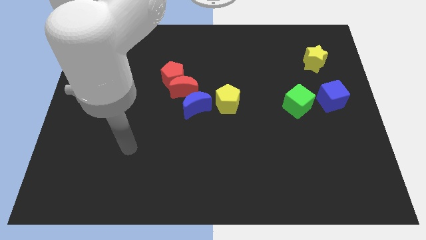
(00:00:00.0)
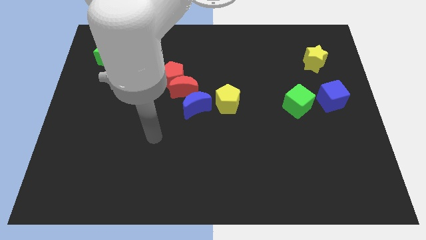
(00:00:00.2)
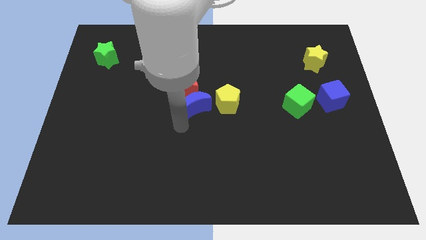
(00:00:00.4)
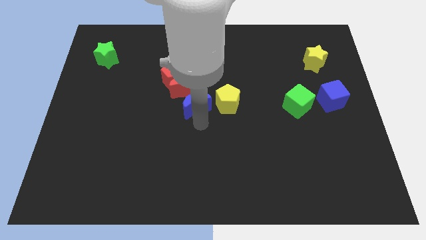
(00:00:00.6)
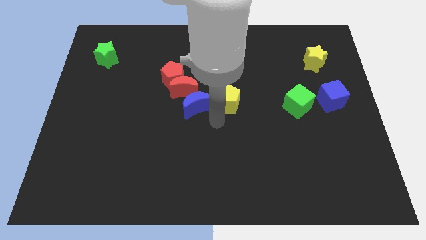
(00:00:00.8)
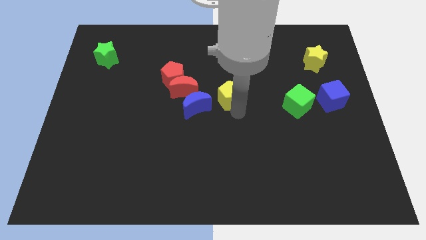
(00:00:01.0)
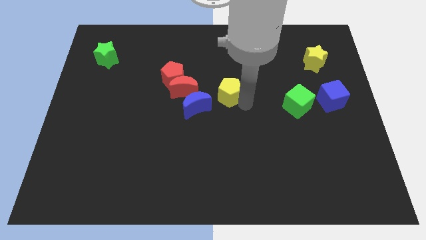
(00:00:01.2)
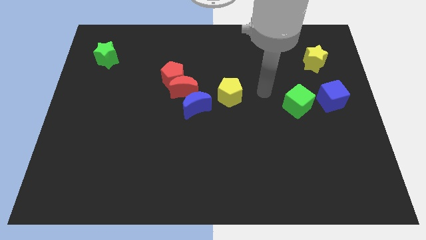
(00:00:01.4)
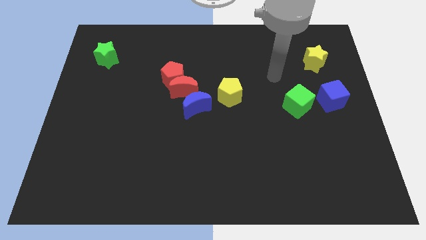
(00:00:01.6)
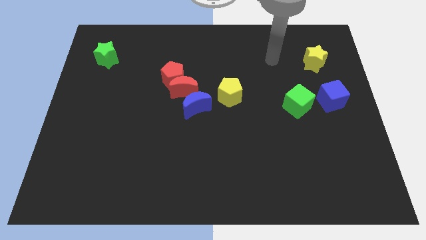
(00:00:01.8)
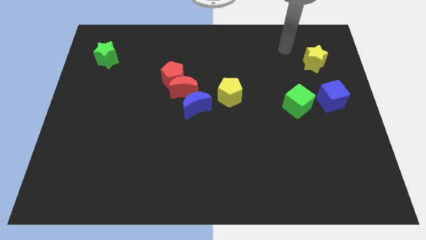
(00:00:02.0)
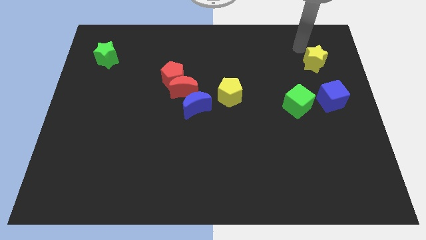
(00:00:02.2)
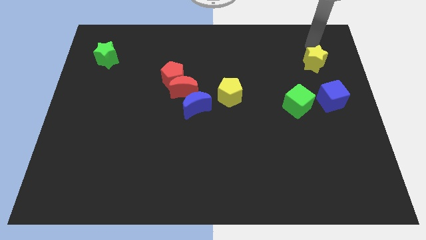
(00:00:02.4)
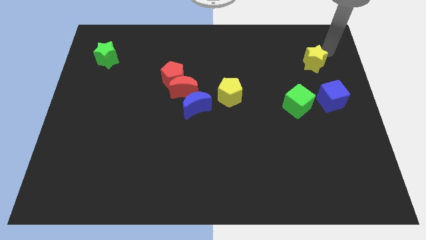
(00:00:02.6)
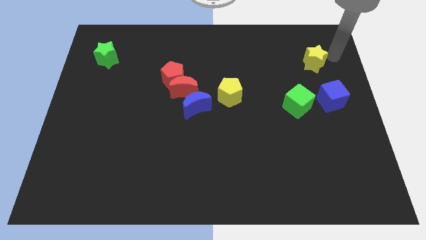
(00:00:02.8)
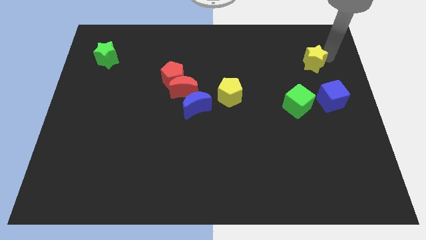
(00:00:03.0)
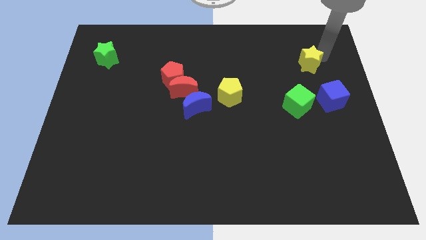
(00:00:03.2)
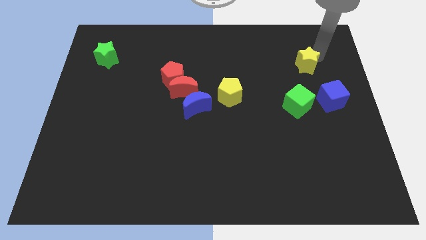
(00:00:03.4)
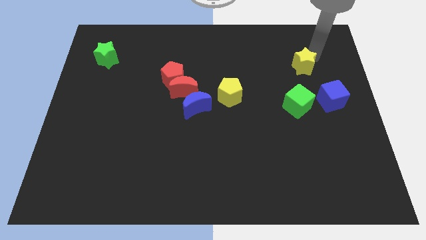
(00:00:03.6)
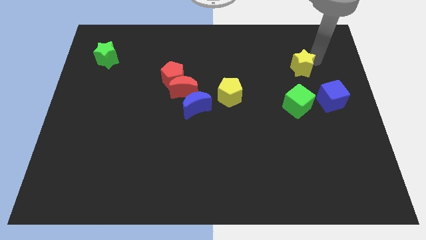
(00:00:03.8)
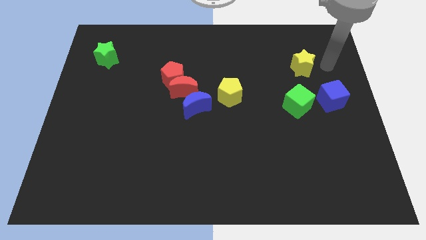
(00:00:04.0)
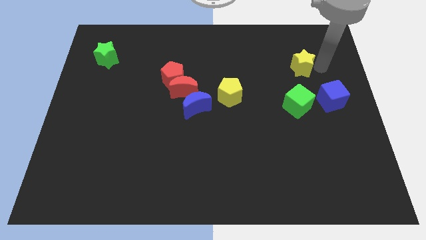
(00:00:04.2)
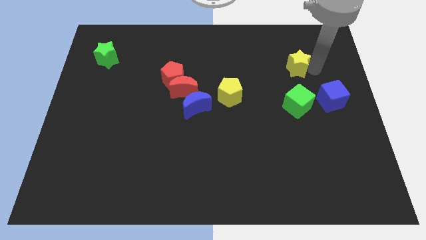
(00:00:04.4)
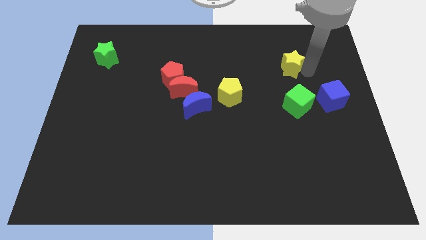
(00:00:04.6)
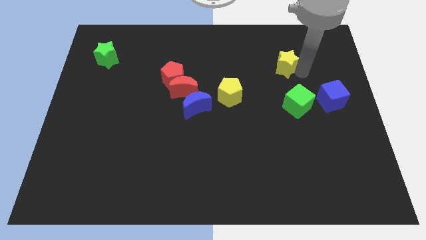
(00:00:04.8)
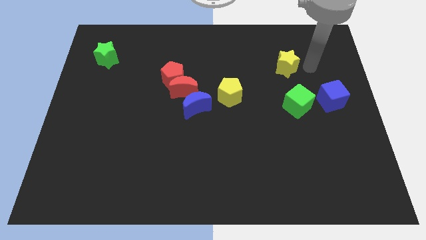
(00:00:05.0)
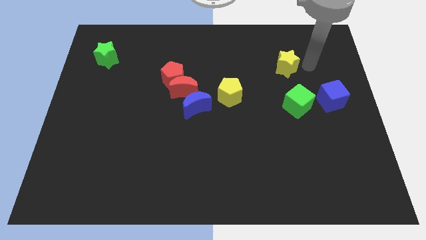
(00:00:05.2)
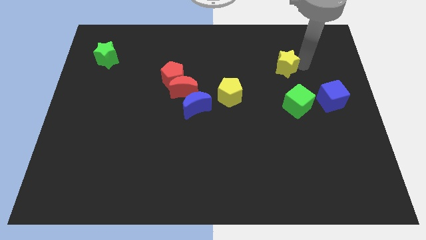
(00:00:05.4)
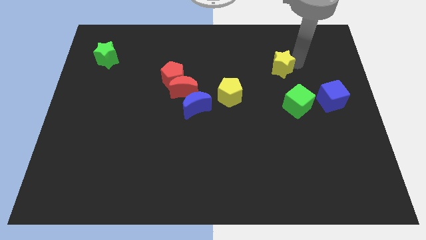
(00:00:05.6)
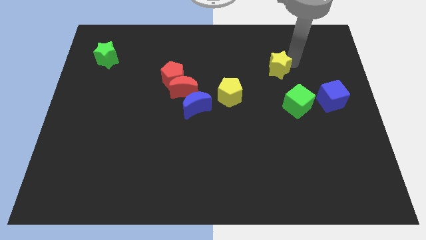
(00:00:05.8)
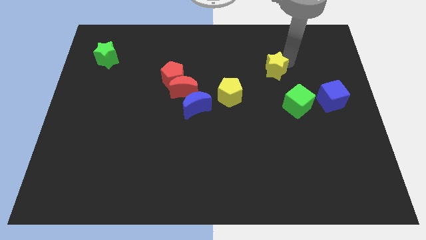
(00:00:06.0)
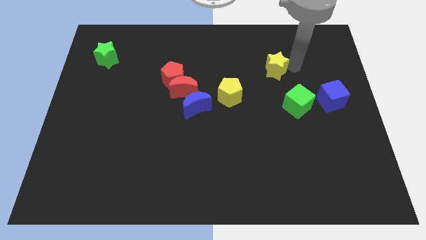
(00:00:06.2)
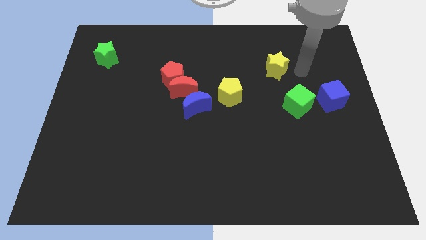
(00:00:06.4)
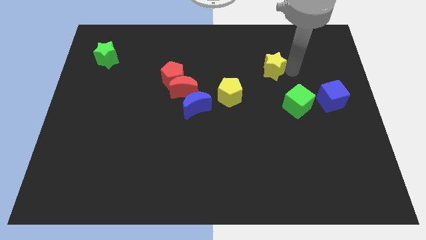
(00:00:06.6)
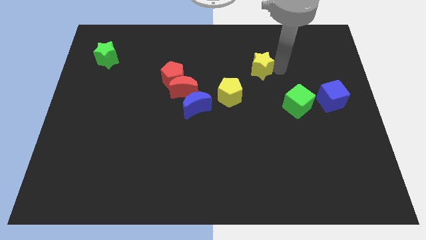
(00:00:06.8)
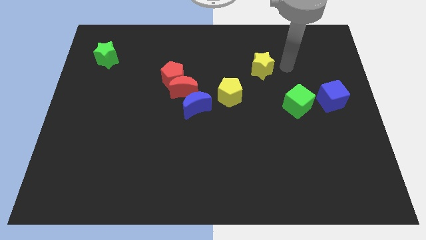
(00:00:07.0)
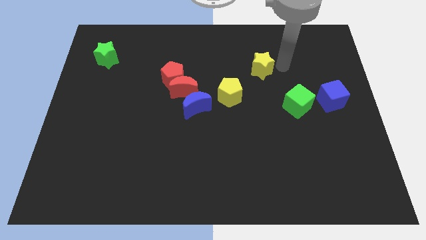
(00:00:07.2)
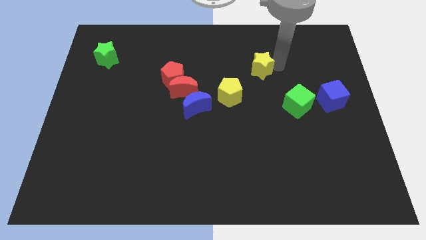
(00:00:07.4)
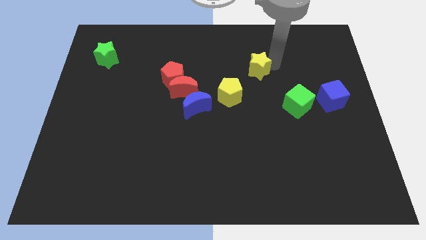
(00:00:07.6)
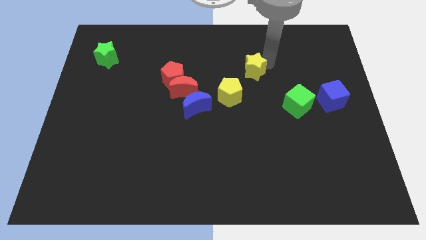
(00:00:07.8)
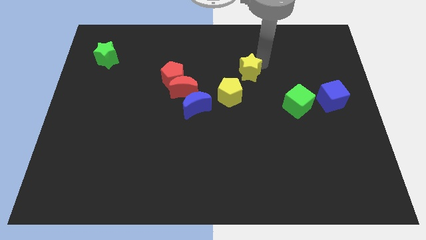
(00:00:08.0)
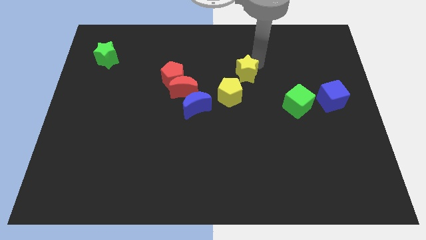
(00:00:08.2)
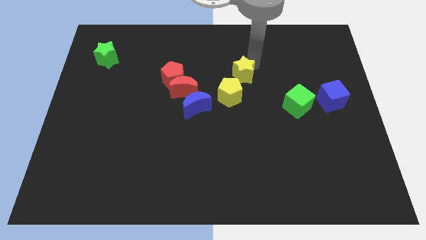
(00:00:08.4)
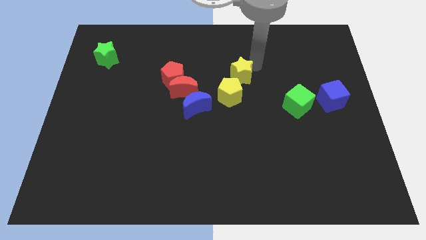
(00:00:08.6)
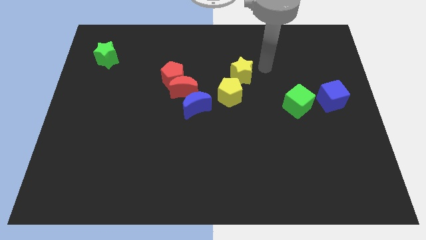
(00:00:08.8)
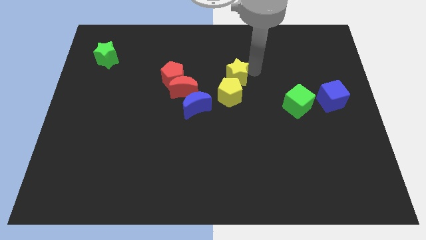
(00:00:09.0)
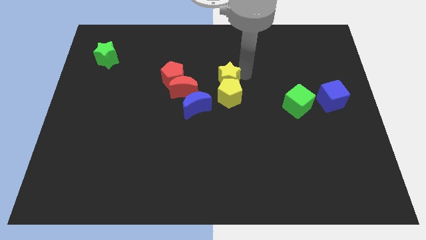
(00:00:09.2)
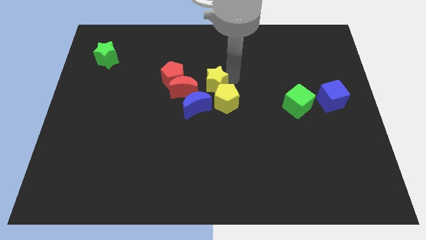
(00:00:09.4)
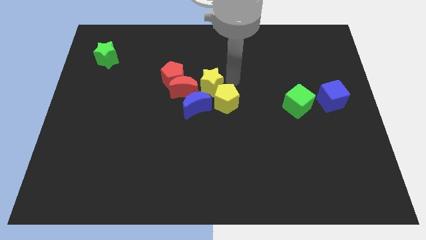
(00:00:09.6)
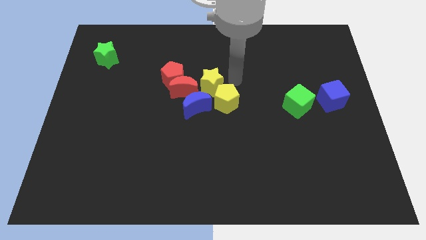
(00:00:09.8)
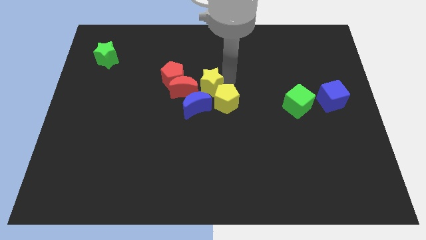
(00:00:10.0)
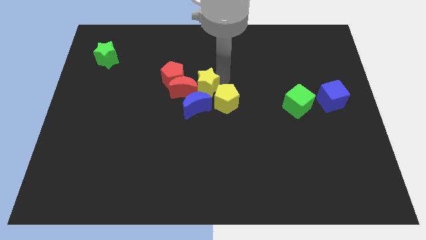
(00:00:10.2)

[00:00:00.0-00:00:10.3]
put the yellow star towards the red moon

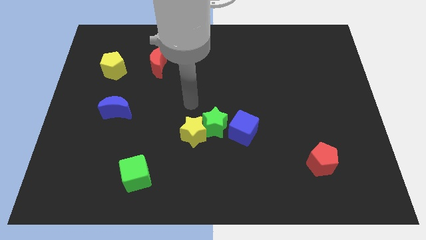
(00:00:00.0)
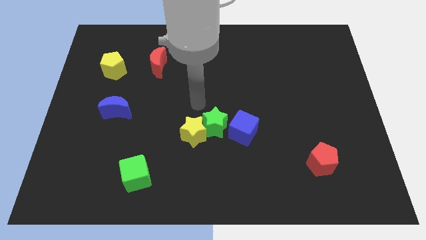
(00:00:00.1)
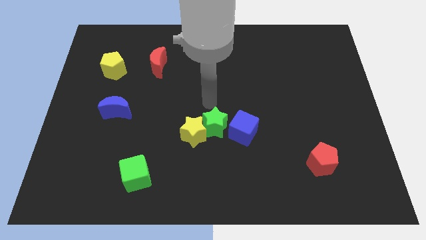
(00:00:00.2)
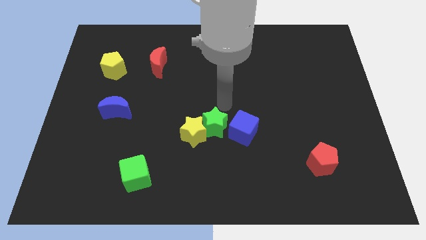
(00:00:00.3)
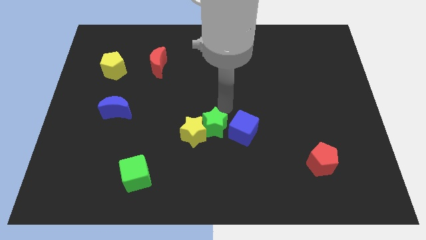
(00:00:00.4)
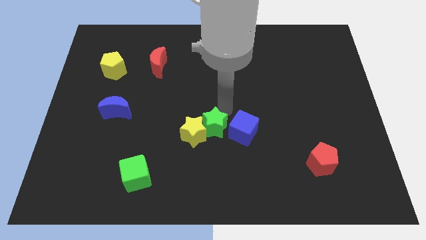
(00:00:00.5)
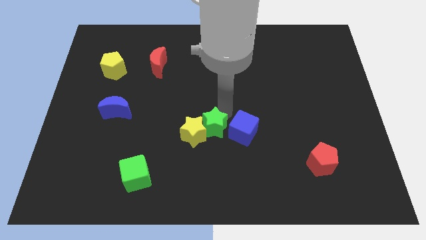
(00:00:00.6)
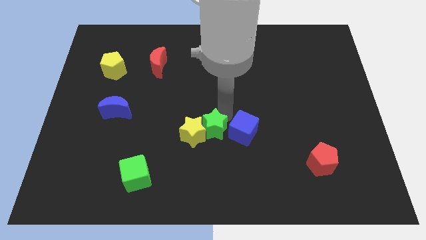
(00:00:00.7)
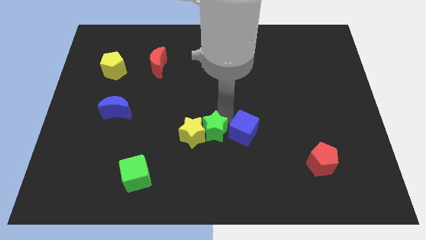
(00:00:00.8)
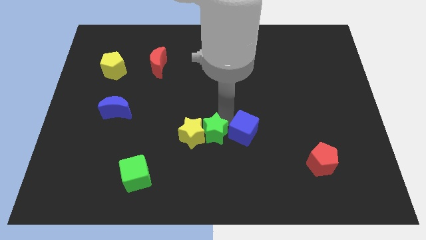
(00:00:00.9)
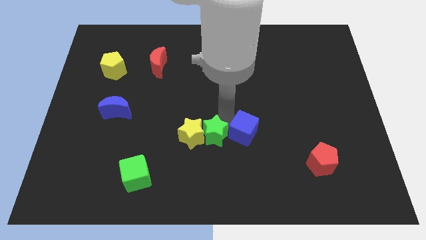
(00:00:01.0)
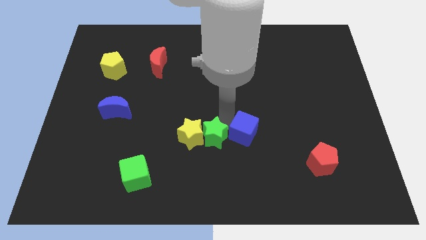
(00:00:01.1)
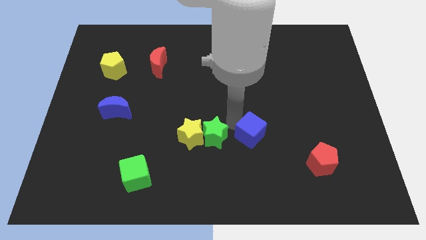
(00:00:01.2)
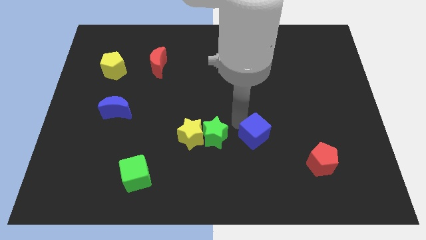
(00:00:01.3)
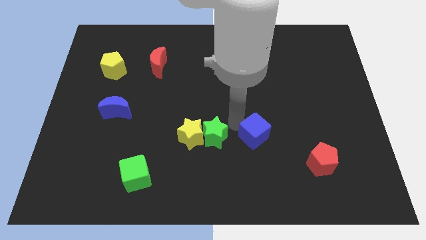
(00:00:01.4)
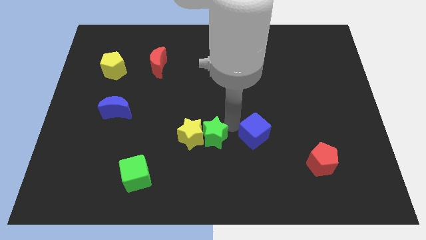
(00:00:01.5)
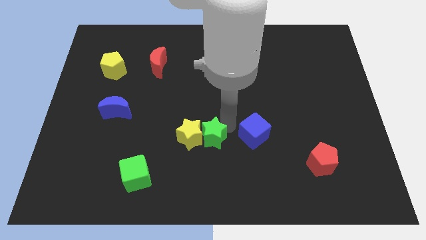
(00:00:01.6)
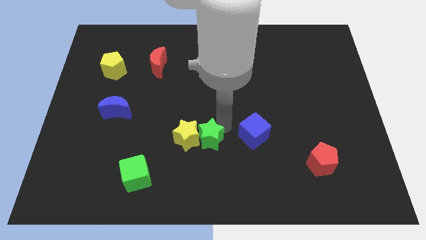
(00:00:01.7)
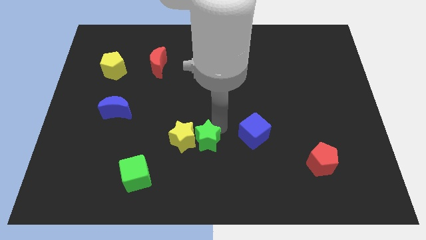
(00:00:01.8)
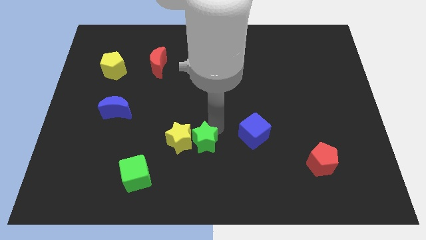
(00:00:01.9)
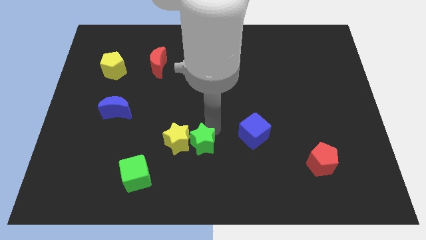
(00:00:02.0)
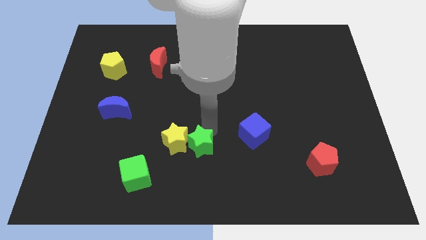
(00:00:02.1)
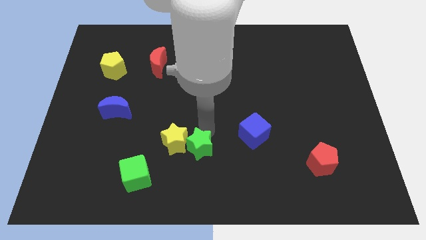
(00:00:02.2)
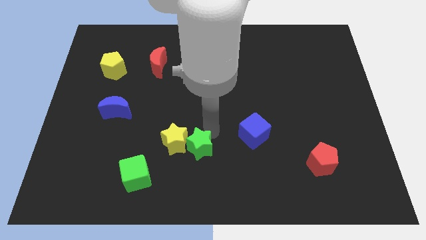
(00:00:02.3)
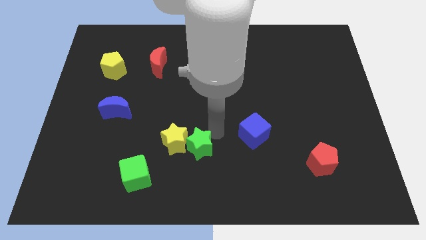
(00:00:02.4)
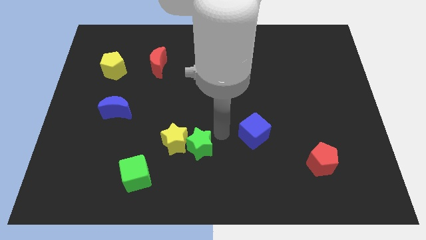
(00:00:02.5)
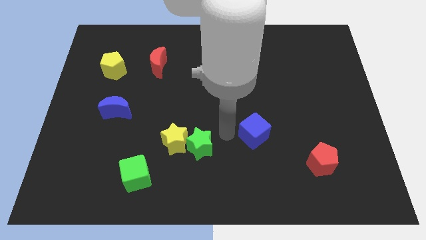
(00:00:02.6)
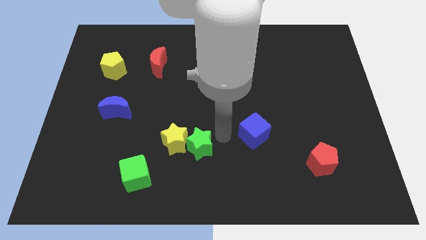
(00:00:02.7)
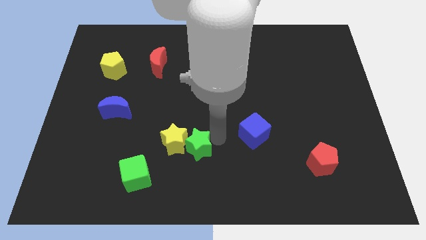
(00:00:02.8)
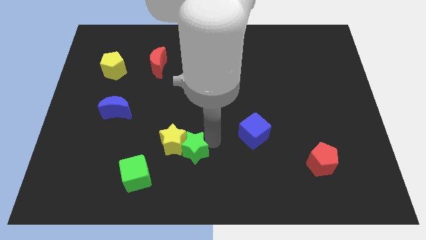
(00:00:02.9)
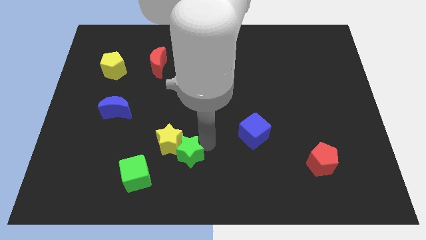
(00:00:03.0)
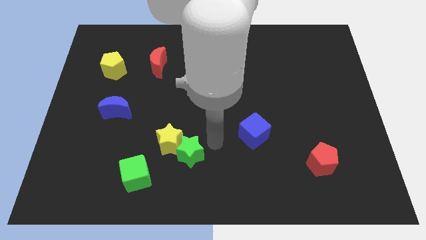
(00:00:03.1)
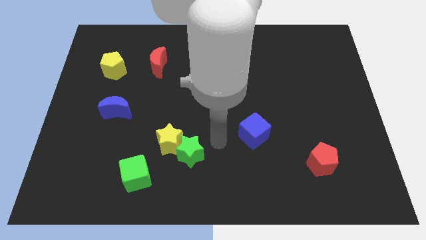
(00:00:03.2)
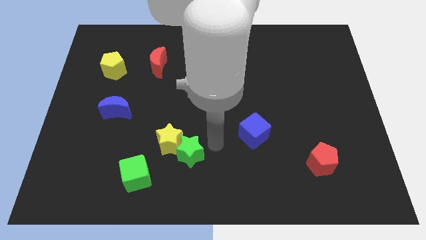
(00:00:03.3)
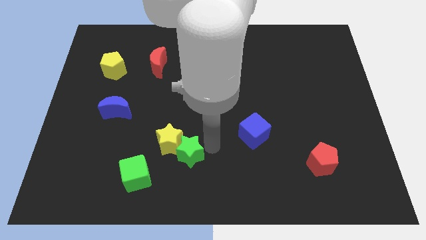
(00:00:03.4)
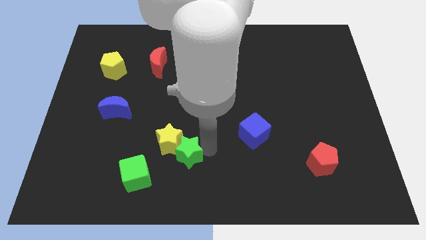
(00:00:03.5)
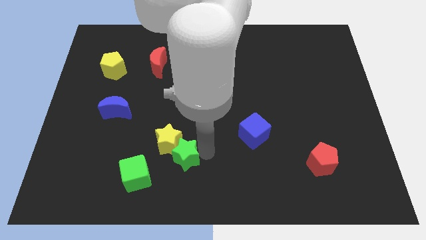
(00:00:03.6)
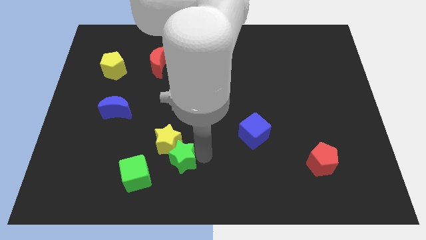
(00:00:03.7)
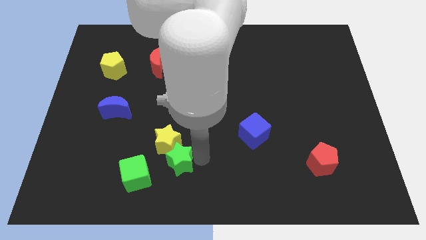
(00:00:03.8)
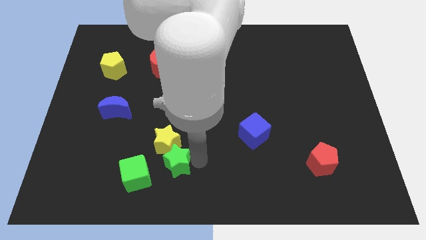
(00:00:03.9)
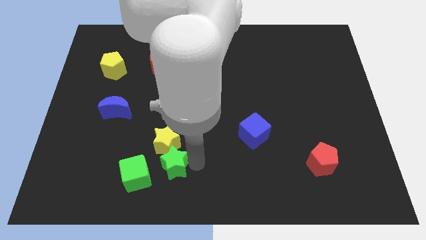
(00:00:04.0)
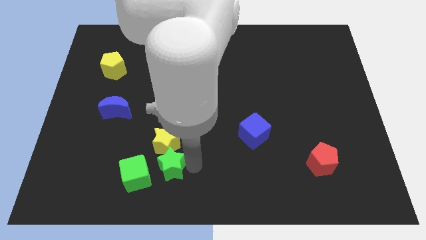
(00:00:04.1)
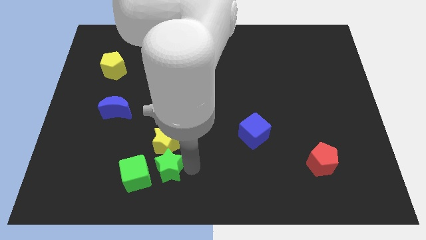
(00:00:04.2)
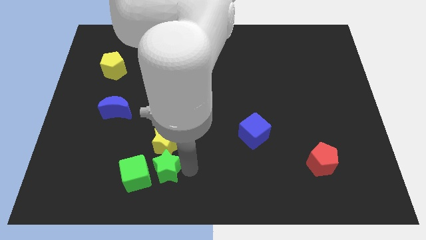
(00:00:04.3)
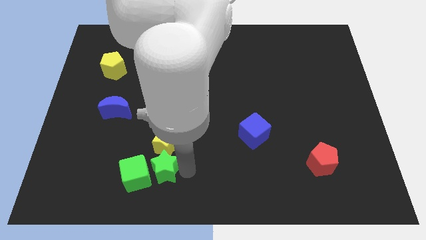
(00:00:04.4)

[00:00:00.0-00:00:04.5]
slide the green star to the green cube
